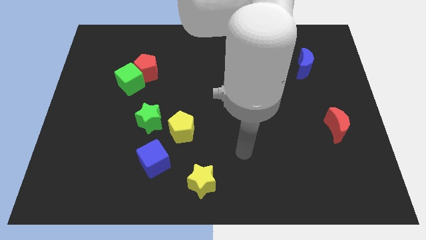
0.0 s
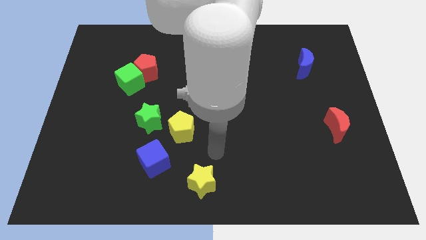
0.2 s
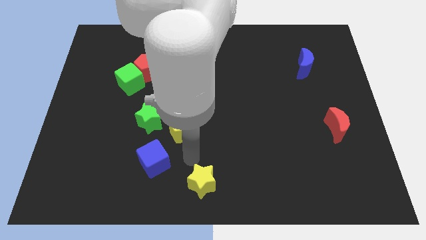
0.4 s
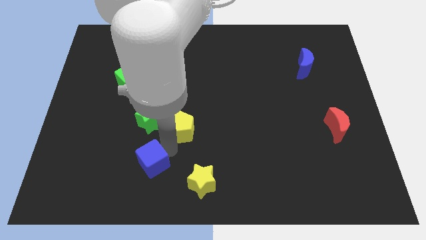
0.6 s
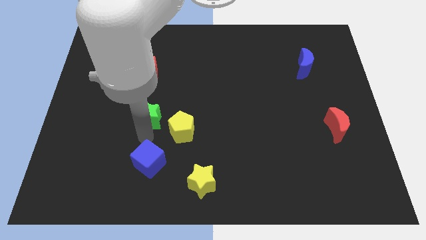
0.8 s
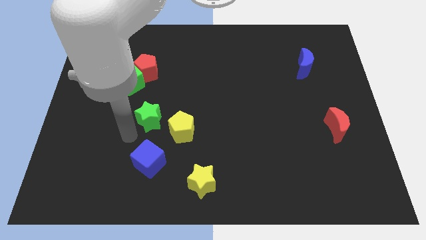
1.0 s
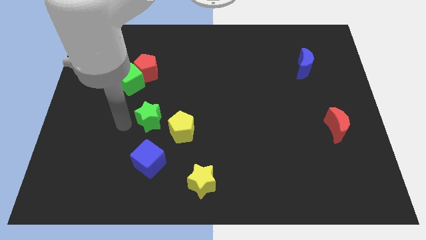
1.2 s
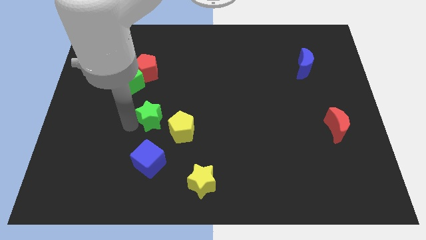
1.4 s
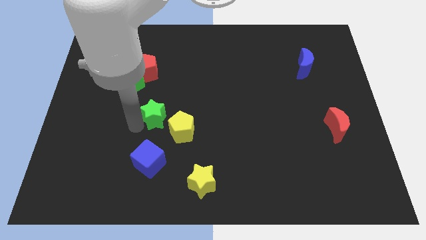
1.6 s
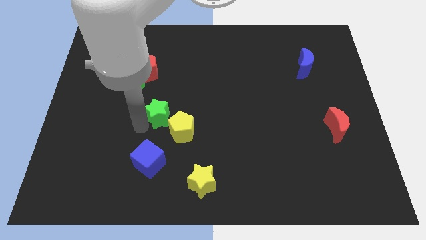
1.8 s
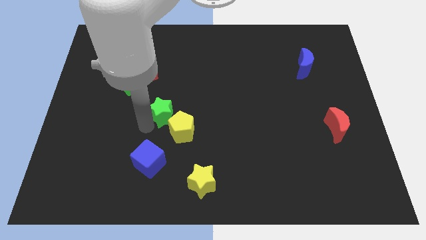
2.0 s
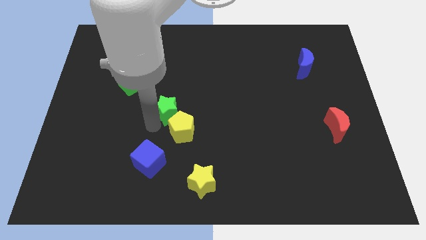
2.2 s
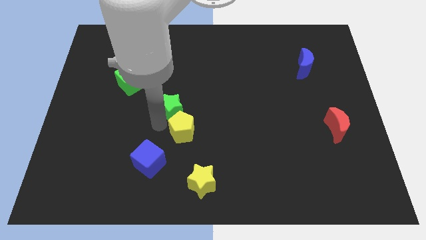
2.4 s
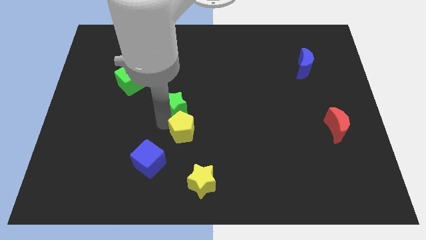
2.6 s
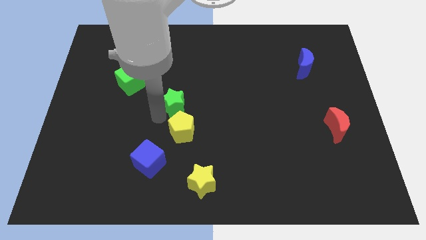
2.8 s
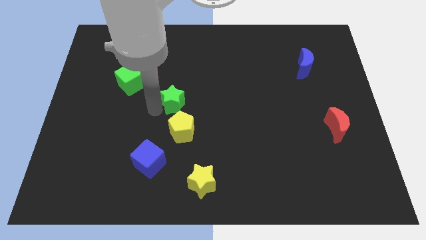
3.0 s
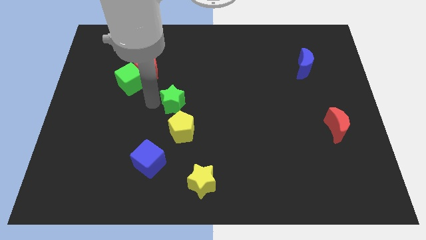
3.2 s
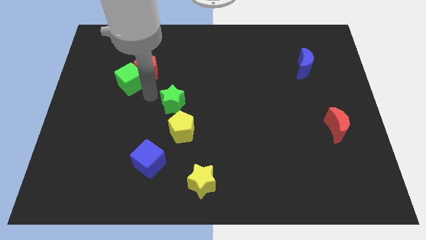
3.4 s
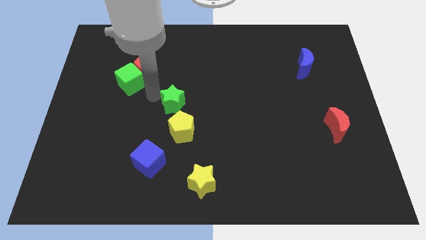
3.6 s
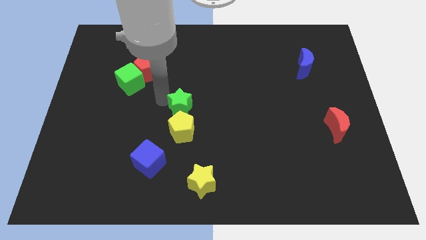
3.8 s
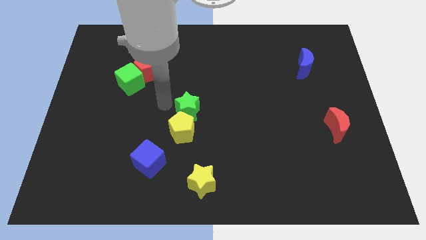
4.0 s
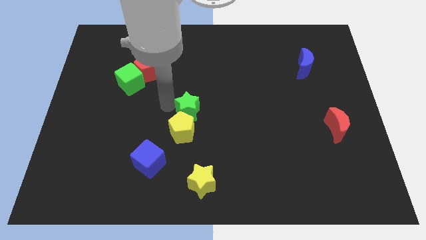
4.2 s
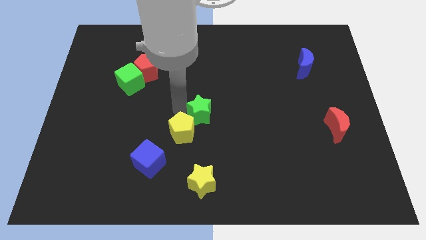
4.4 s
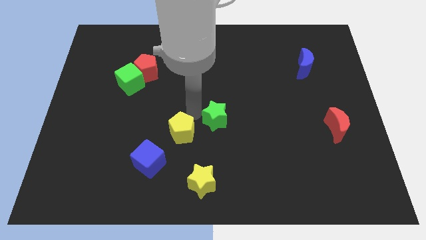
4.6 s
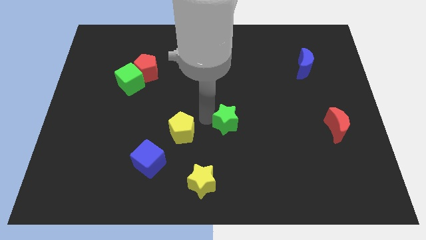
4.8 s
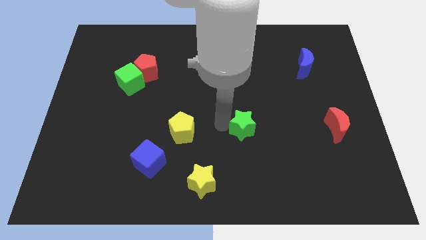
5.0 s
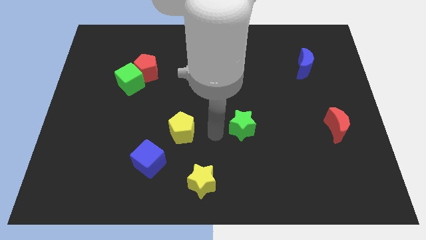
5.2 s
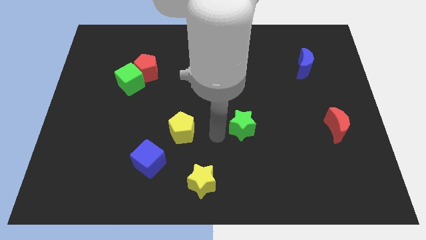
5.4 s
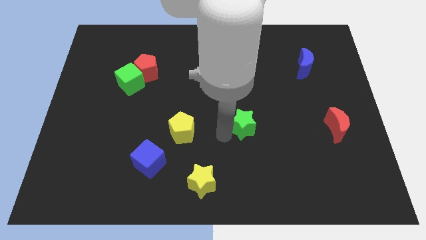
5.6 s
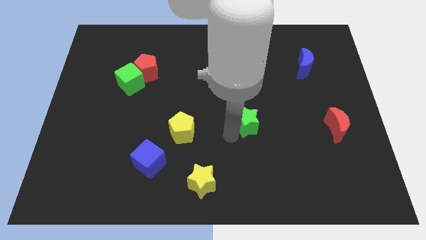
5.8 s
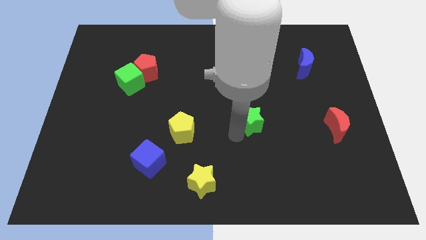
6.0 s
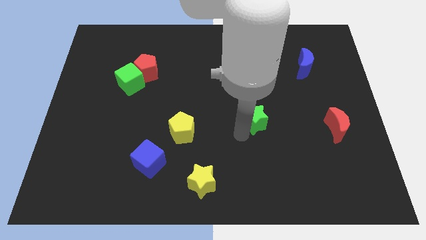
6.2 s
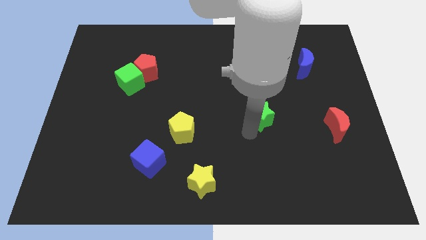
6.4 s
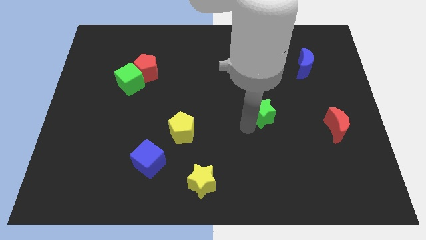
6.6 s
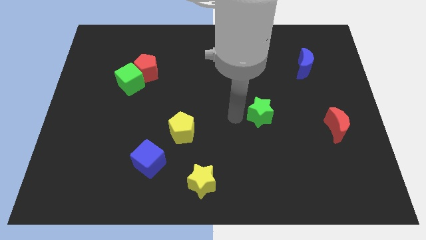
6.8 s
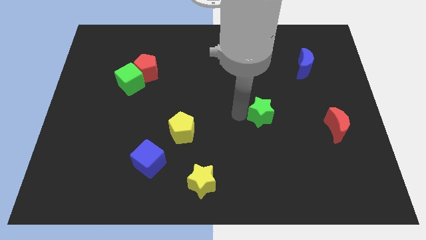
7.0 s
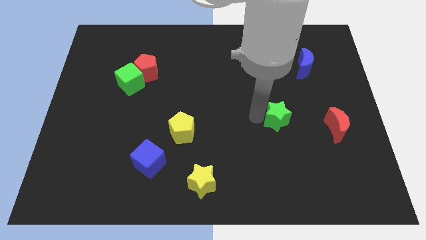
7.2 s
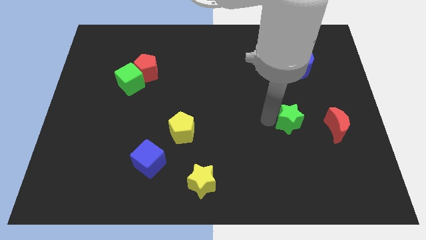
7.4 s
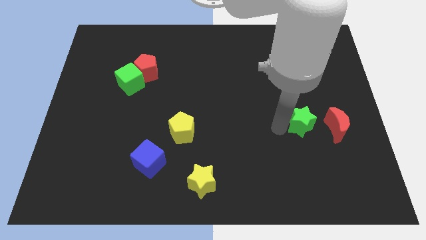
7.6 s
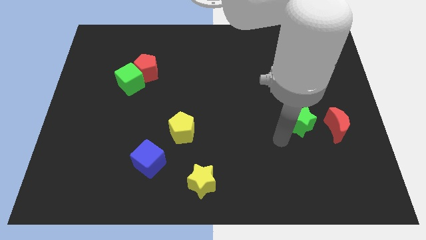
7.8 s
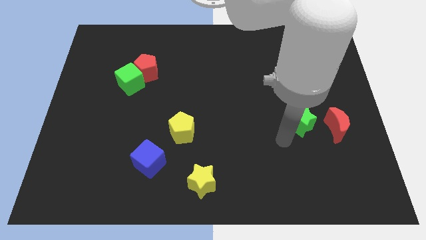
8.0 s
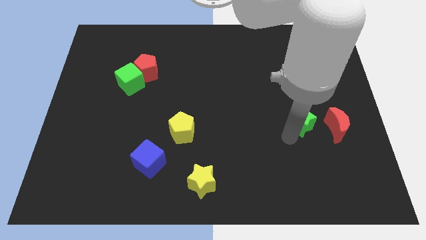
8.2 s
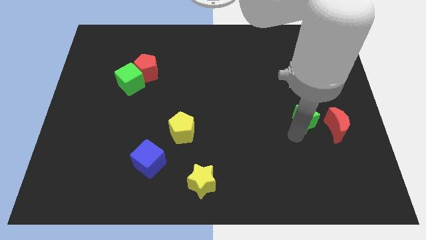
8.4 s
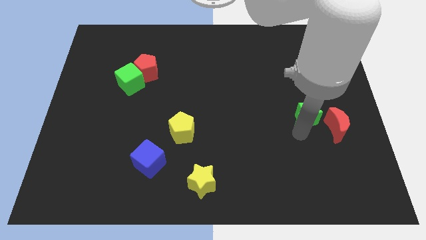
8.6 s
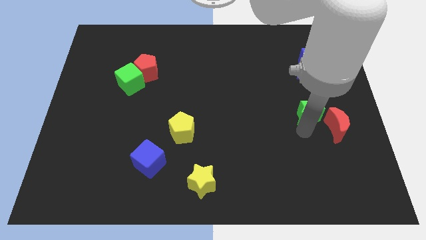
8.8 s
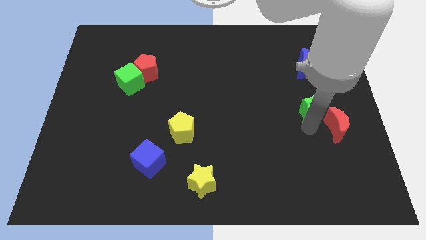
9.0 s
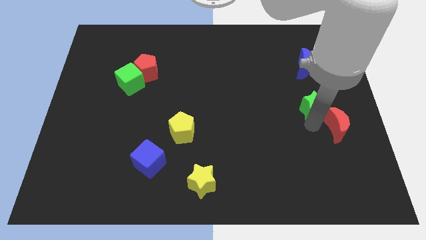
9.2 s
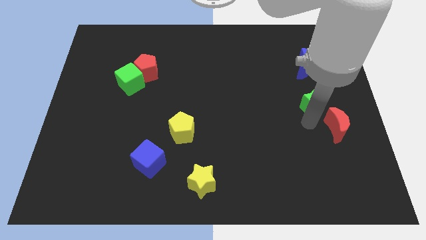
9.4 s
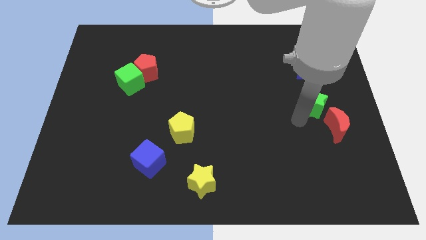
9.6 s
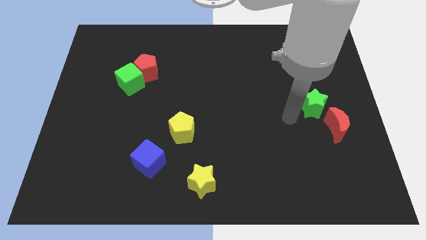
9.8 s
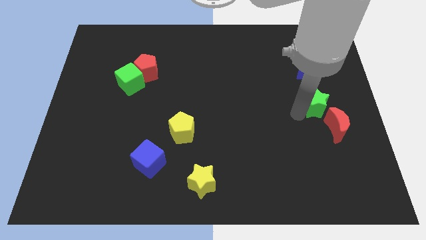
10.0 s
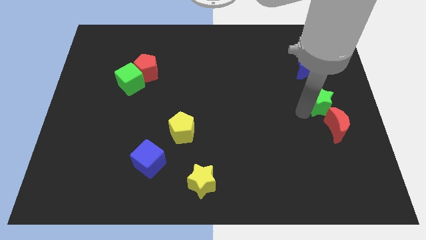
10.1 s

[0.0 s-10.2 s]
slide the green star to the right side

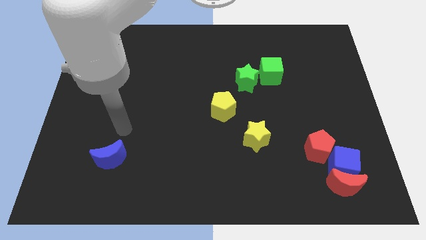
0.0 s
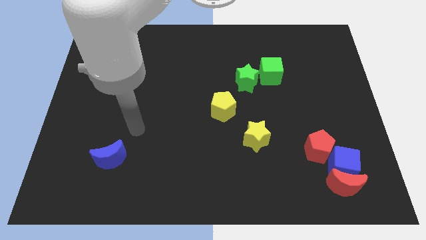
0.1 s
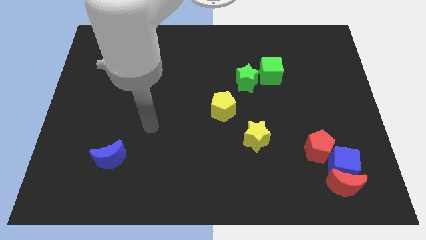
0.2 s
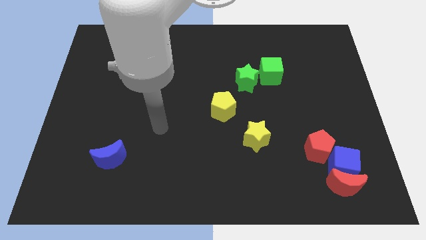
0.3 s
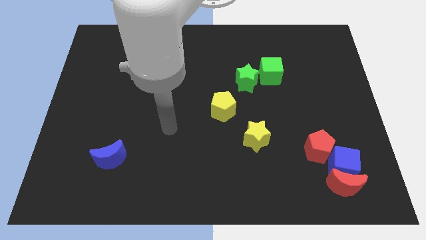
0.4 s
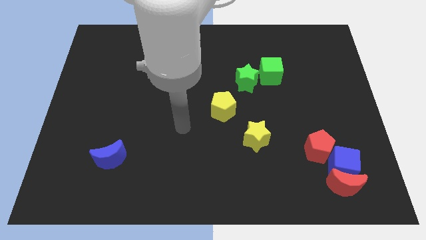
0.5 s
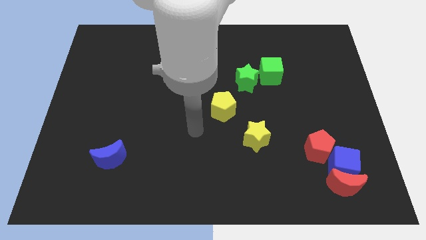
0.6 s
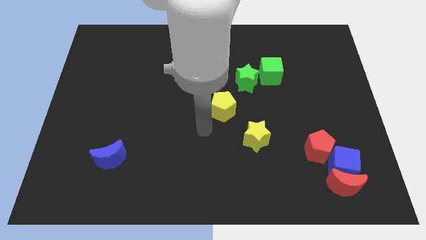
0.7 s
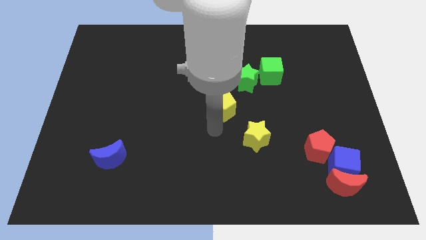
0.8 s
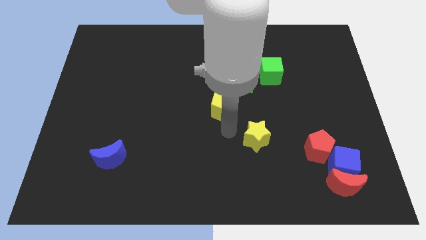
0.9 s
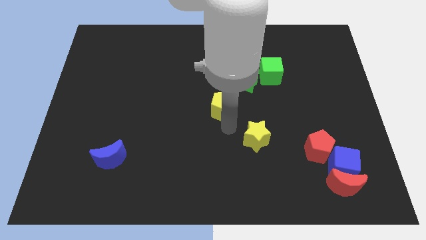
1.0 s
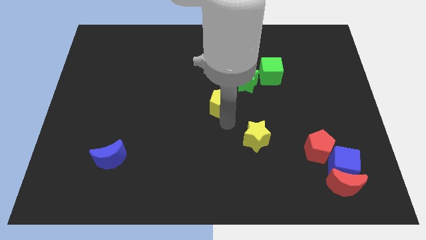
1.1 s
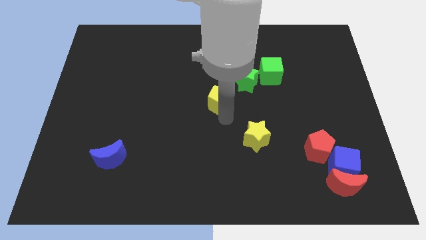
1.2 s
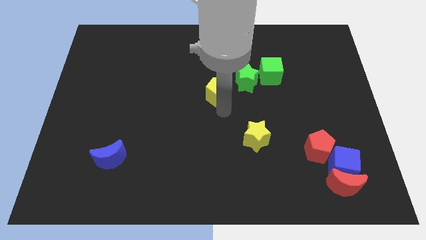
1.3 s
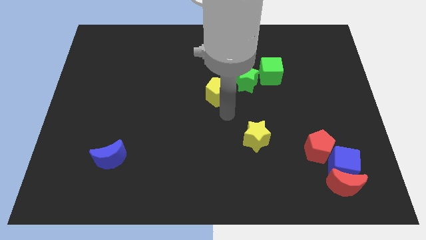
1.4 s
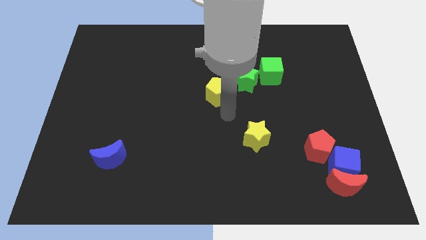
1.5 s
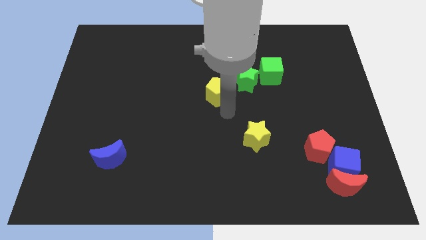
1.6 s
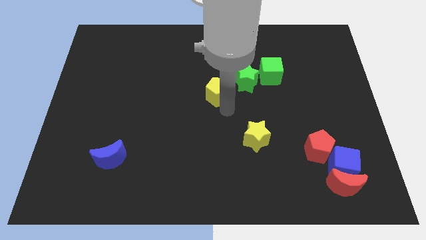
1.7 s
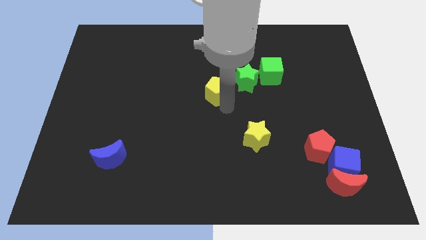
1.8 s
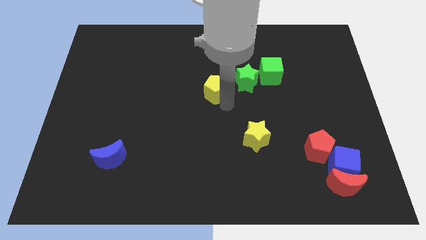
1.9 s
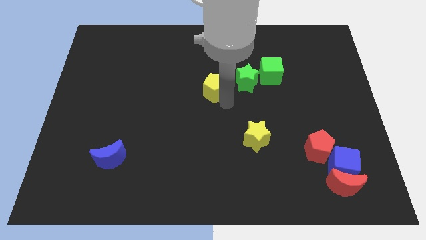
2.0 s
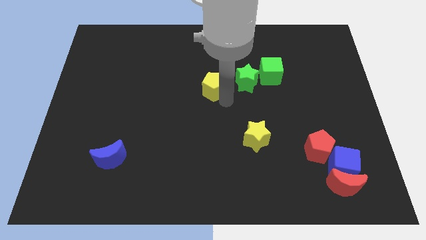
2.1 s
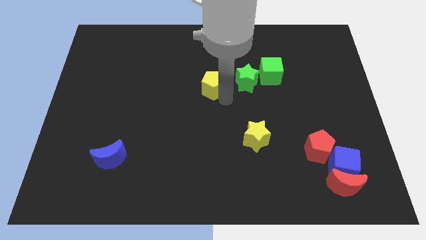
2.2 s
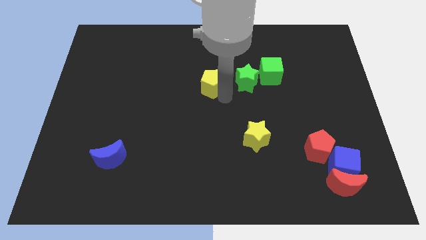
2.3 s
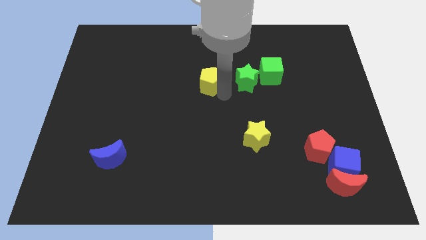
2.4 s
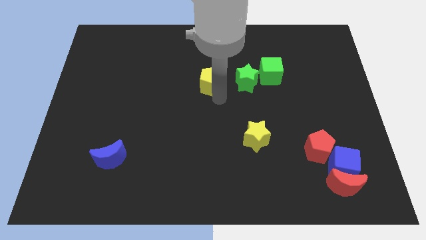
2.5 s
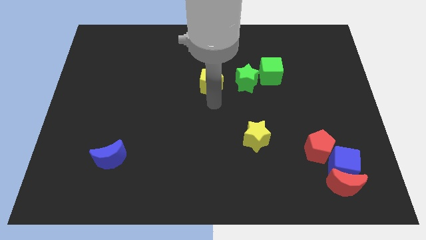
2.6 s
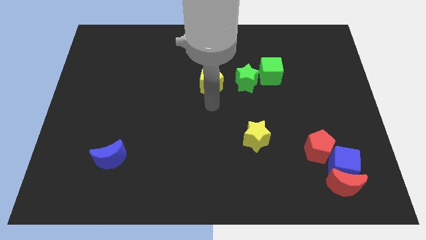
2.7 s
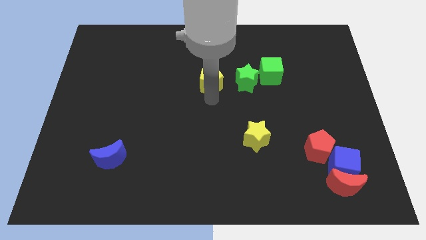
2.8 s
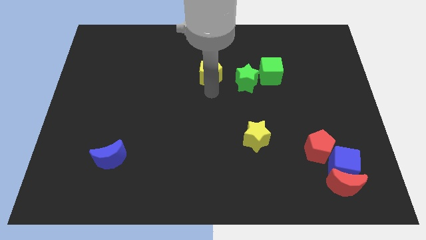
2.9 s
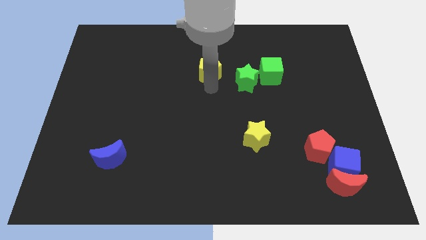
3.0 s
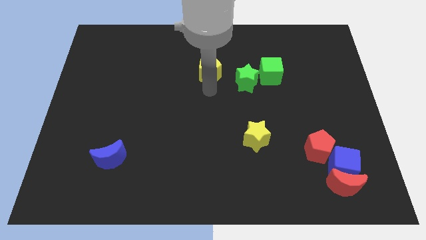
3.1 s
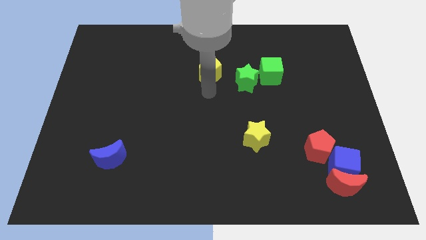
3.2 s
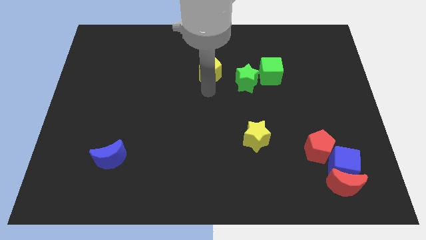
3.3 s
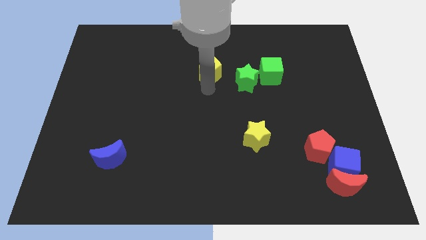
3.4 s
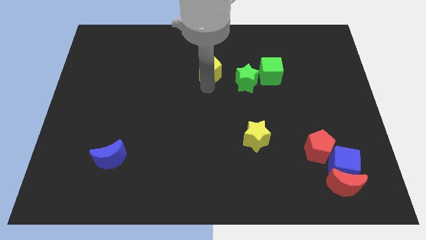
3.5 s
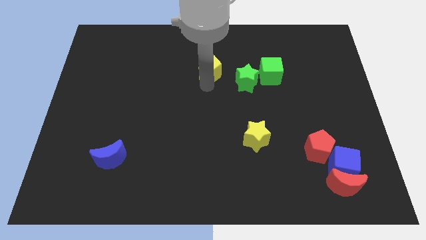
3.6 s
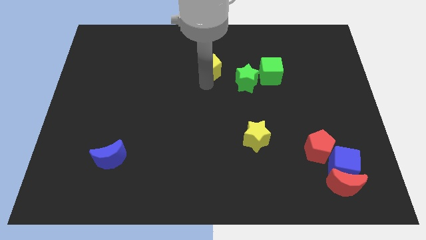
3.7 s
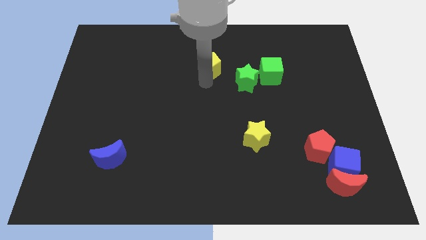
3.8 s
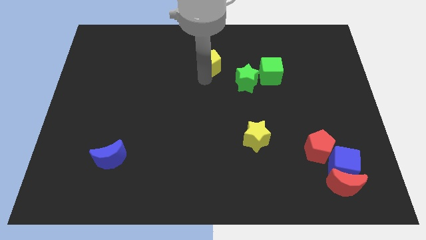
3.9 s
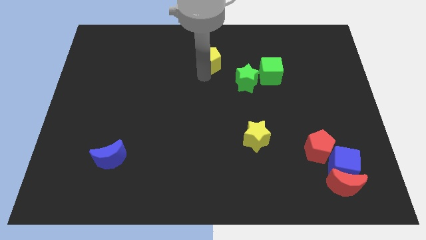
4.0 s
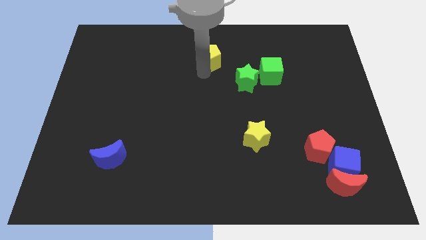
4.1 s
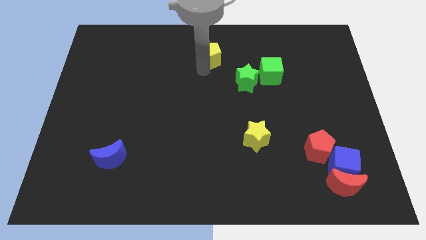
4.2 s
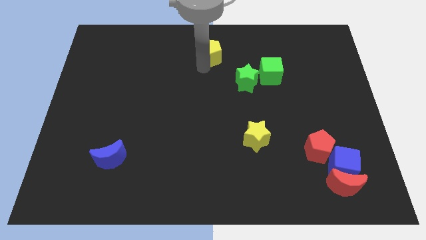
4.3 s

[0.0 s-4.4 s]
slide the yellow pentagon to the towards your base
